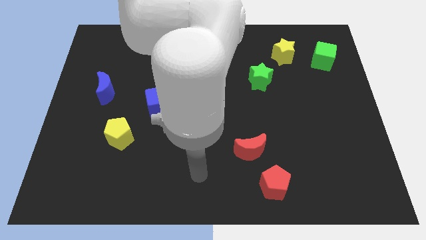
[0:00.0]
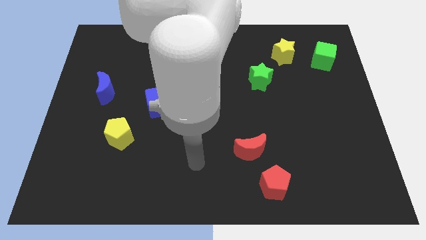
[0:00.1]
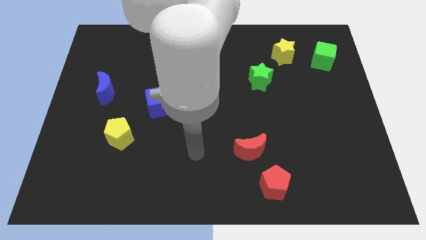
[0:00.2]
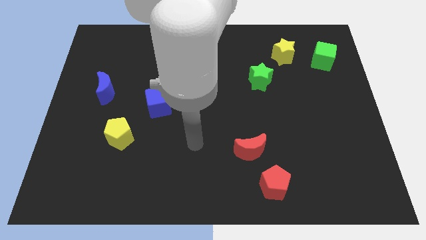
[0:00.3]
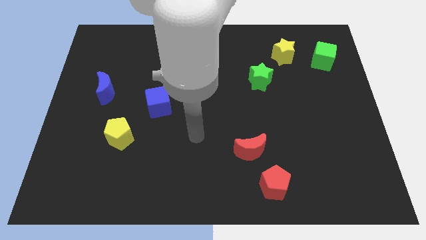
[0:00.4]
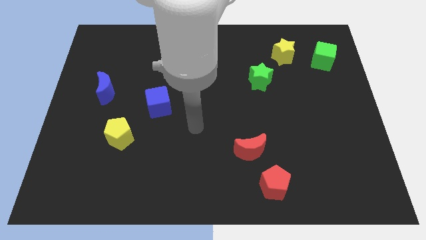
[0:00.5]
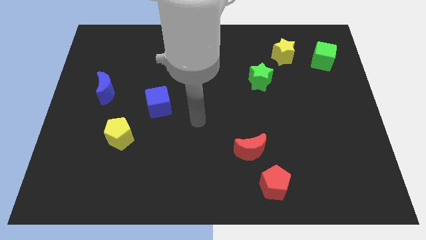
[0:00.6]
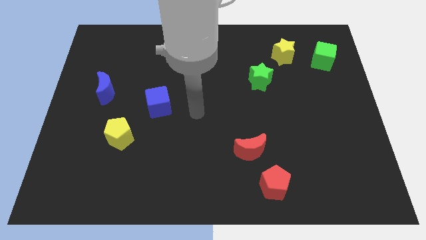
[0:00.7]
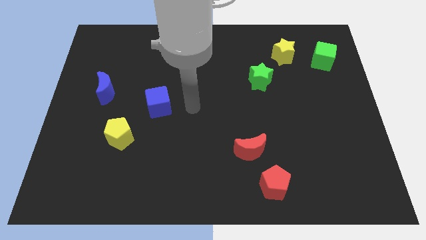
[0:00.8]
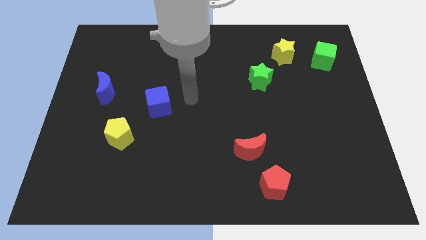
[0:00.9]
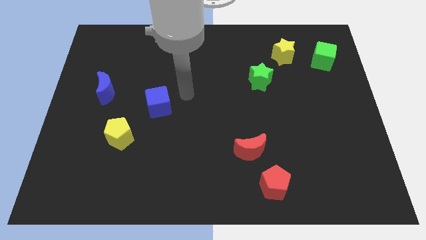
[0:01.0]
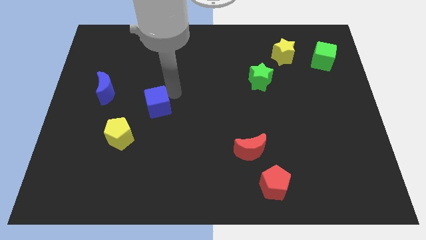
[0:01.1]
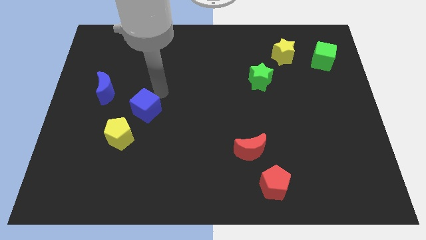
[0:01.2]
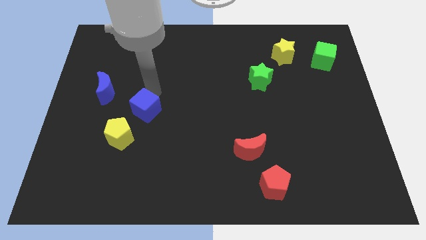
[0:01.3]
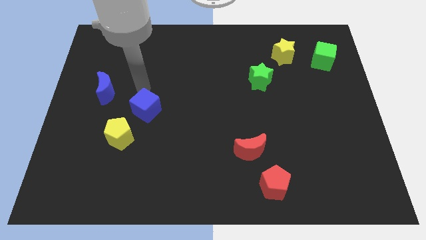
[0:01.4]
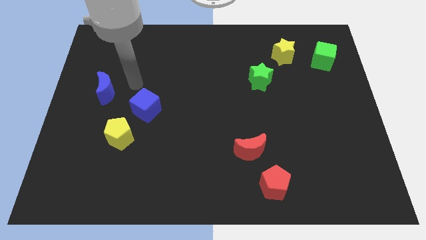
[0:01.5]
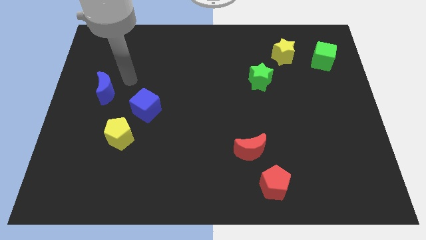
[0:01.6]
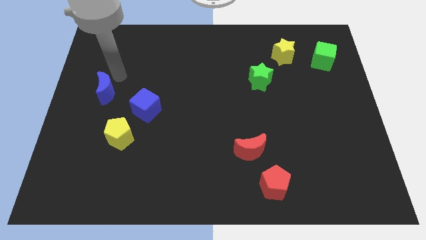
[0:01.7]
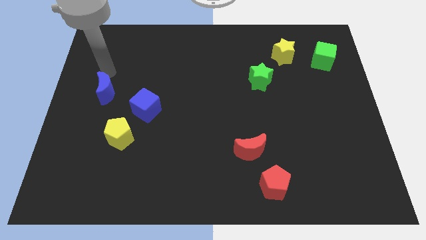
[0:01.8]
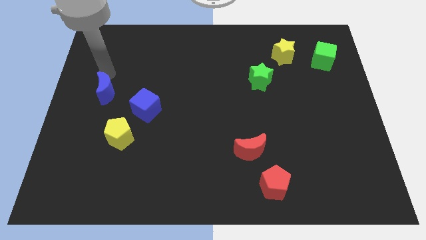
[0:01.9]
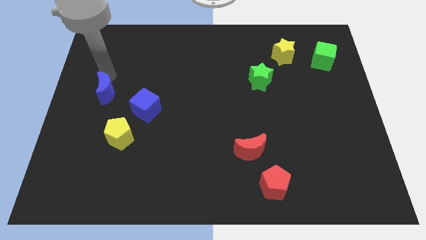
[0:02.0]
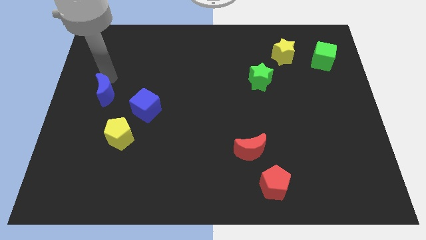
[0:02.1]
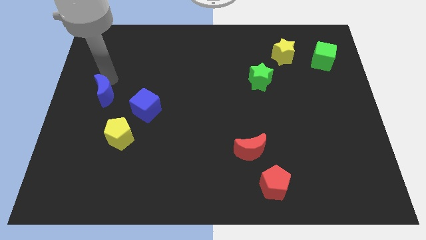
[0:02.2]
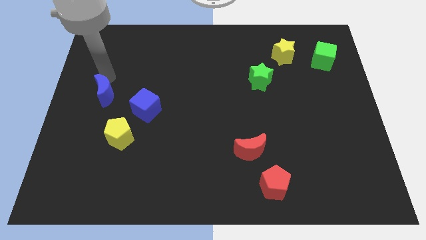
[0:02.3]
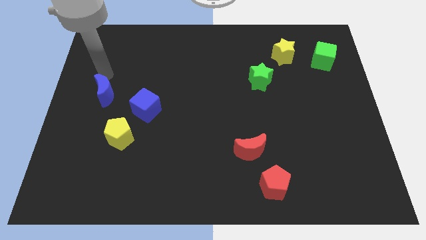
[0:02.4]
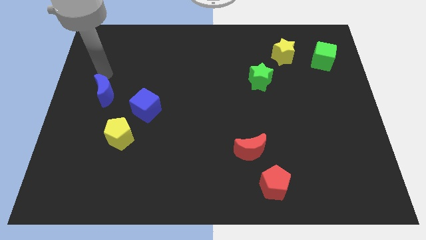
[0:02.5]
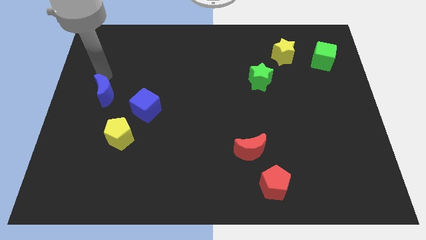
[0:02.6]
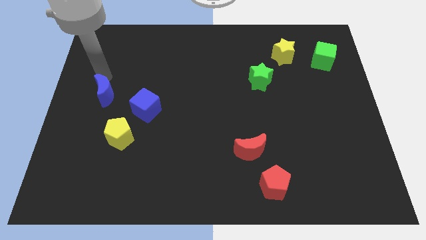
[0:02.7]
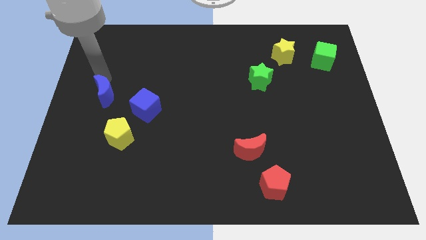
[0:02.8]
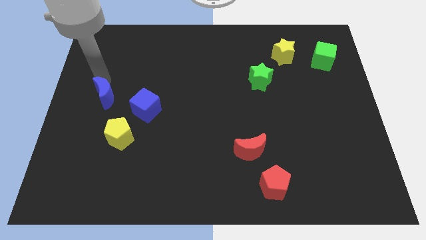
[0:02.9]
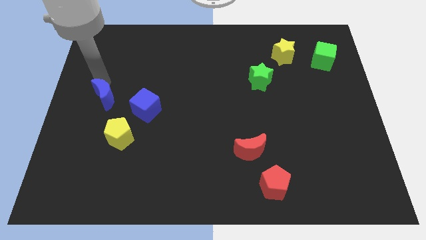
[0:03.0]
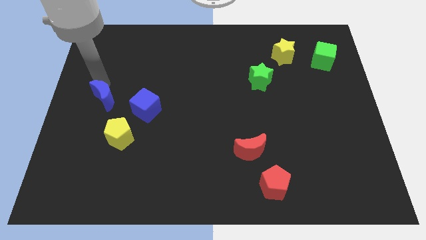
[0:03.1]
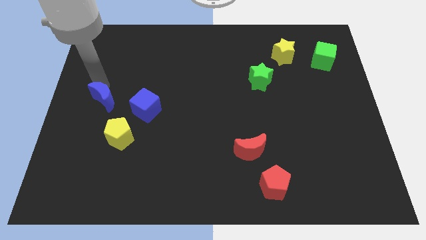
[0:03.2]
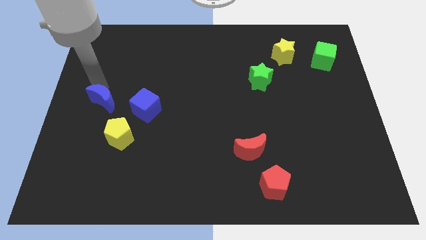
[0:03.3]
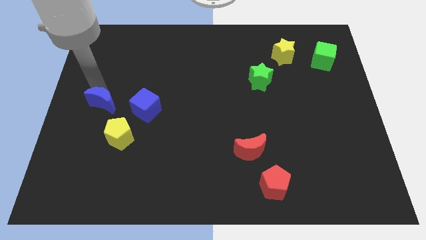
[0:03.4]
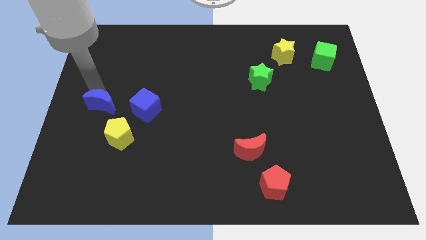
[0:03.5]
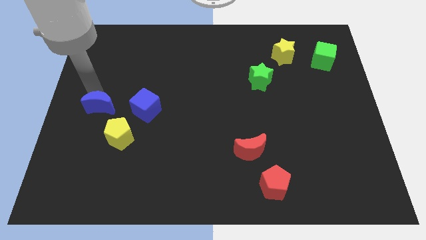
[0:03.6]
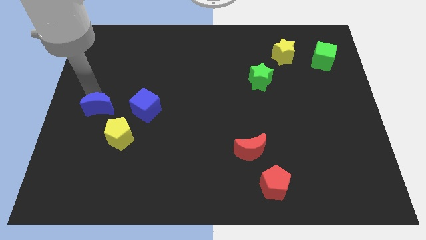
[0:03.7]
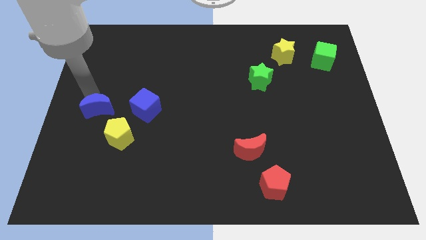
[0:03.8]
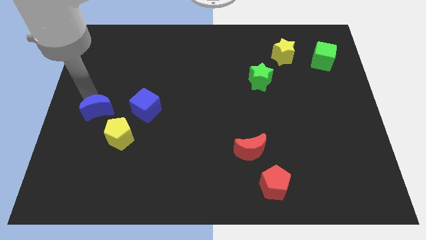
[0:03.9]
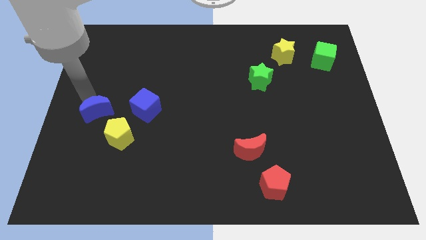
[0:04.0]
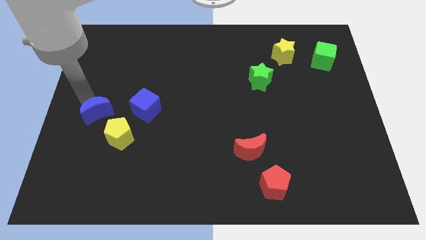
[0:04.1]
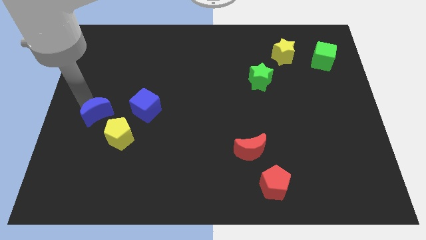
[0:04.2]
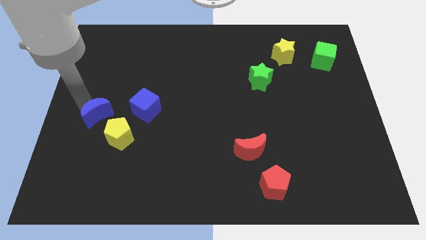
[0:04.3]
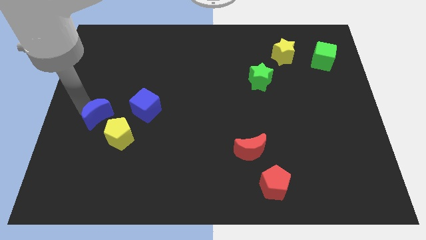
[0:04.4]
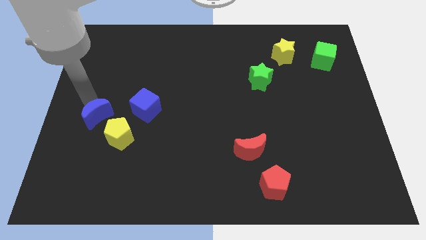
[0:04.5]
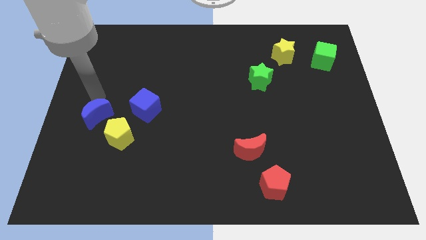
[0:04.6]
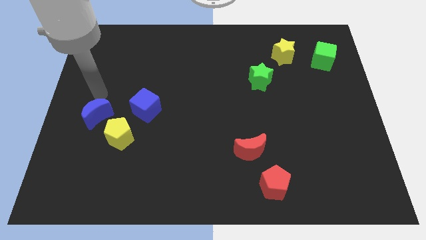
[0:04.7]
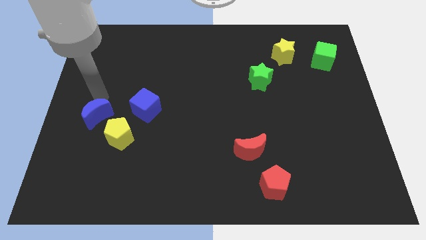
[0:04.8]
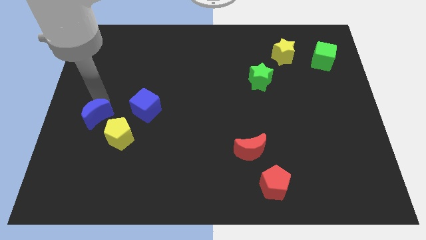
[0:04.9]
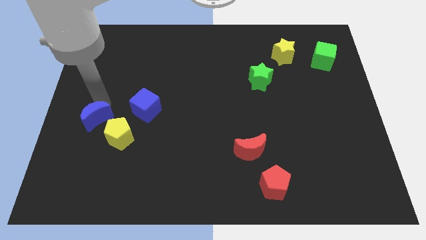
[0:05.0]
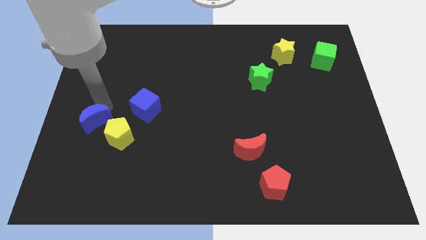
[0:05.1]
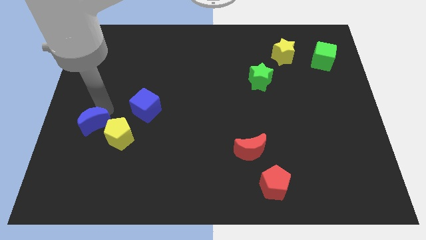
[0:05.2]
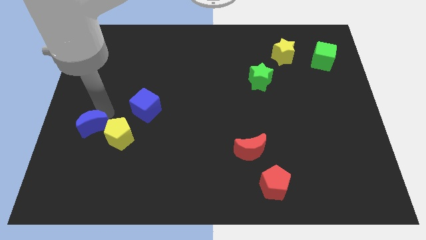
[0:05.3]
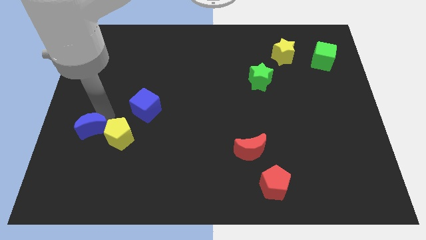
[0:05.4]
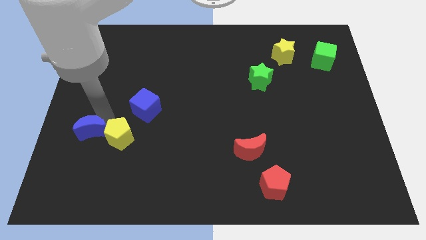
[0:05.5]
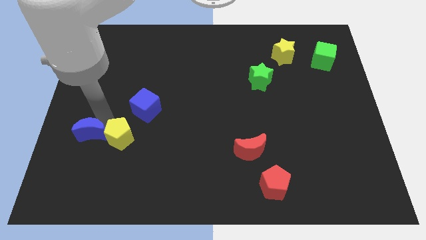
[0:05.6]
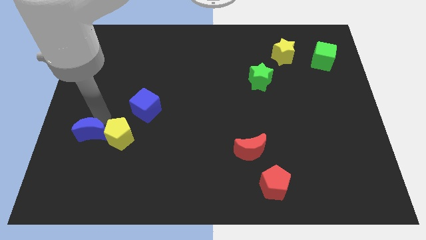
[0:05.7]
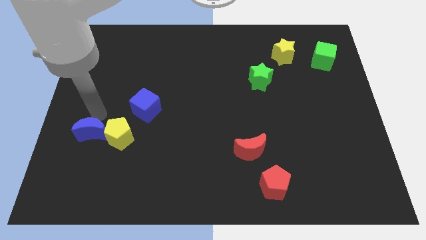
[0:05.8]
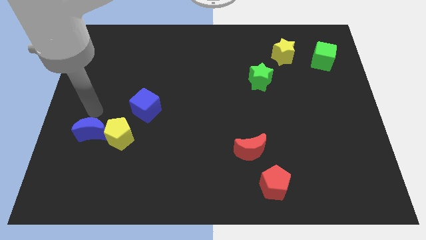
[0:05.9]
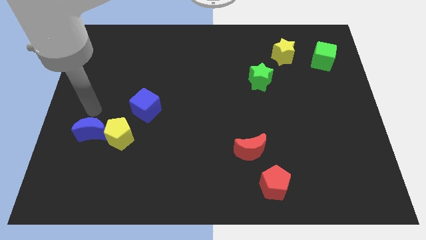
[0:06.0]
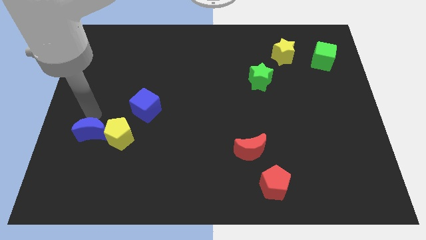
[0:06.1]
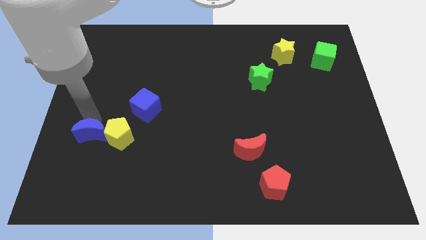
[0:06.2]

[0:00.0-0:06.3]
move the blue moon to the bottom left side of the yellow pentagon

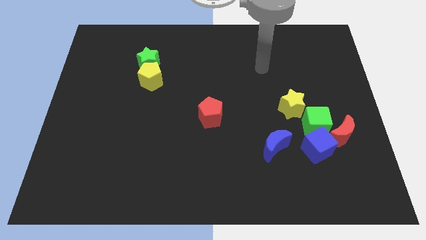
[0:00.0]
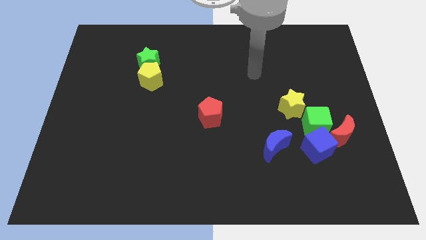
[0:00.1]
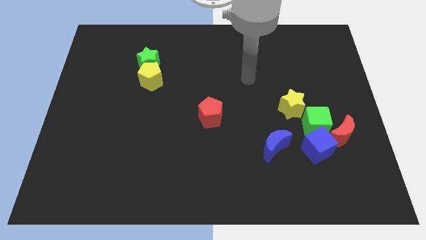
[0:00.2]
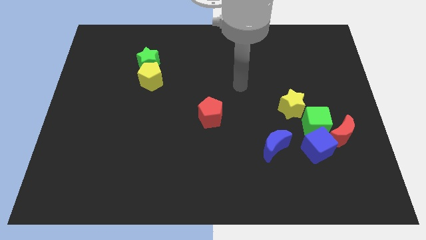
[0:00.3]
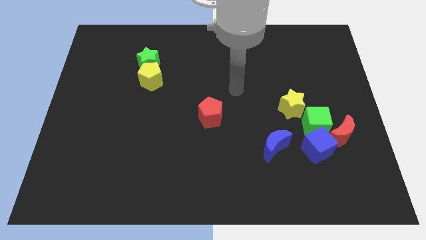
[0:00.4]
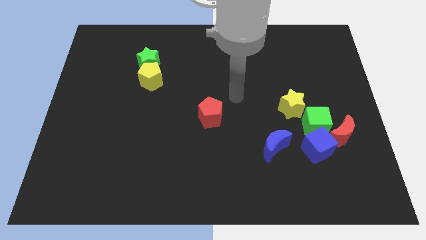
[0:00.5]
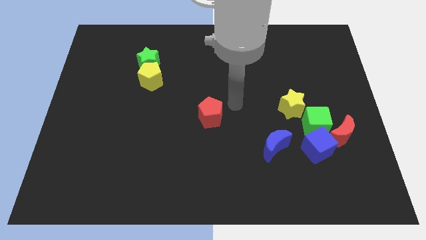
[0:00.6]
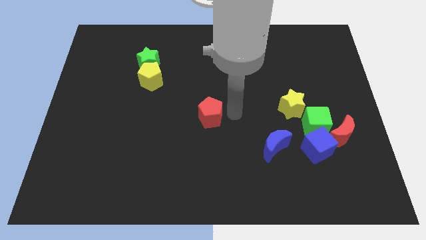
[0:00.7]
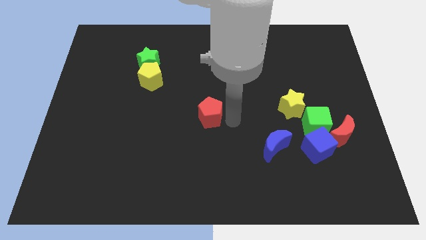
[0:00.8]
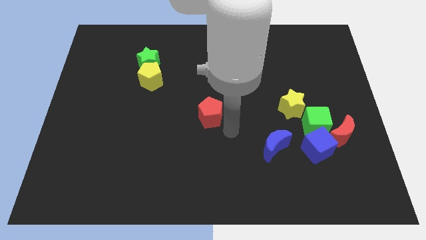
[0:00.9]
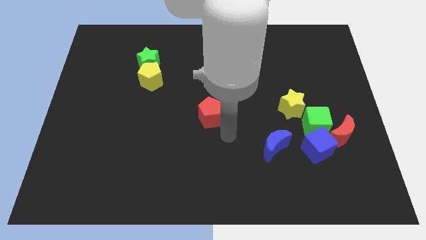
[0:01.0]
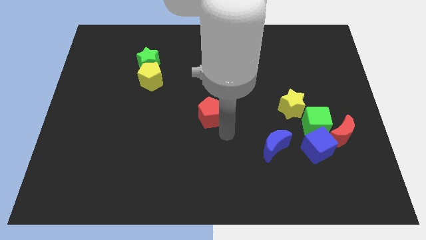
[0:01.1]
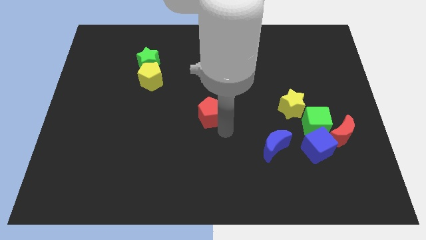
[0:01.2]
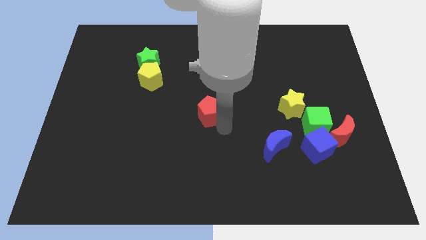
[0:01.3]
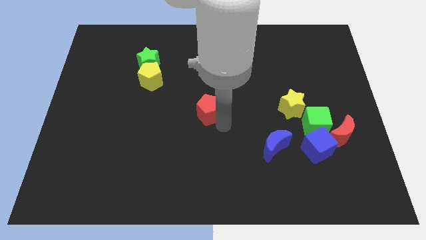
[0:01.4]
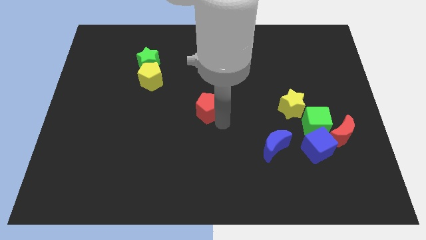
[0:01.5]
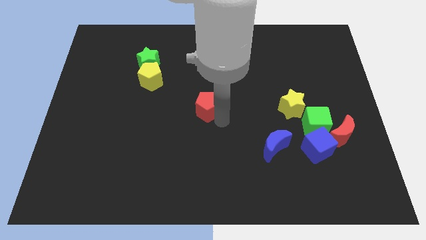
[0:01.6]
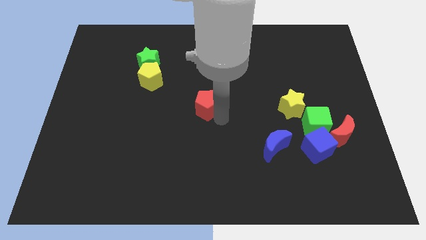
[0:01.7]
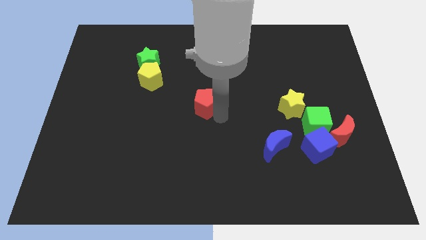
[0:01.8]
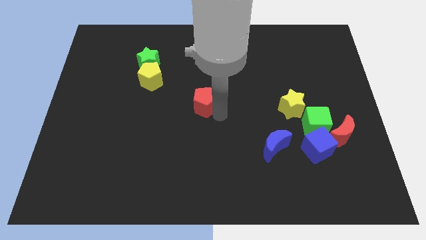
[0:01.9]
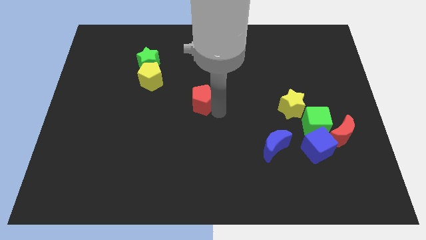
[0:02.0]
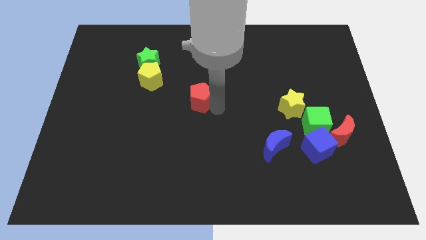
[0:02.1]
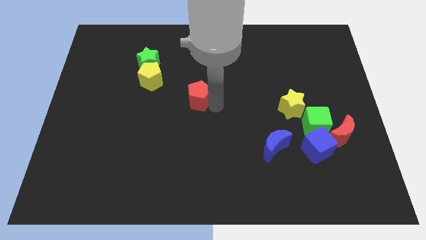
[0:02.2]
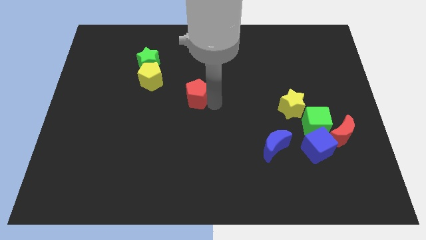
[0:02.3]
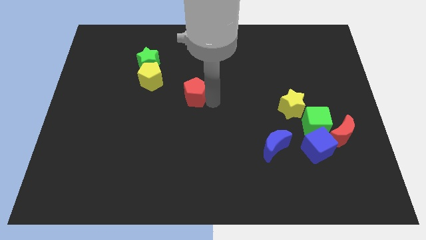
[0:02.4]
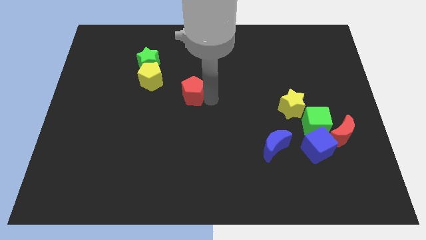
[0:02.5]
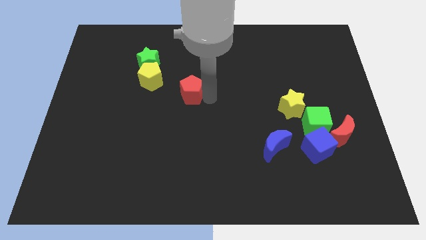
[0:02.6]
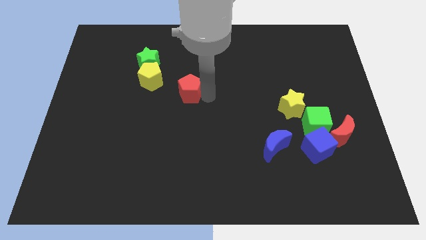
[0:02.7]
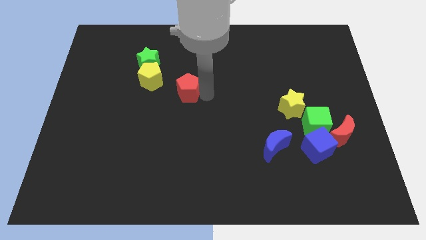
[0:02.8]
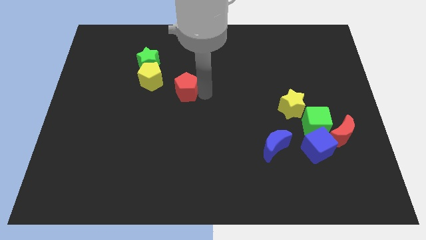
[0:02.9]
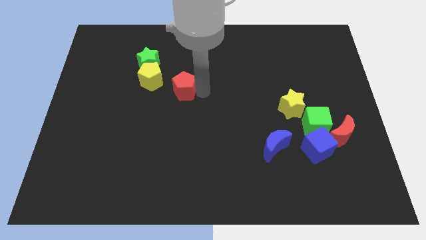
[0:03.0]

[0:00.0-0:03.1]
push the red pentagon diagonally down and to the right of the green star
